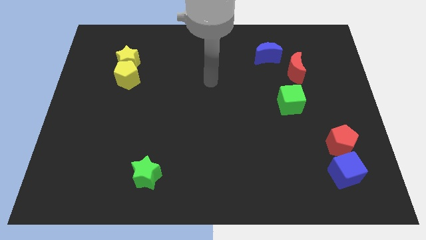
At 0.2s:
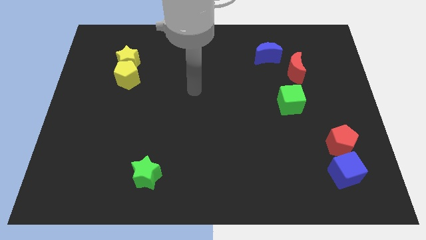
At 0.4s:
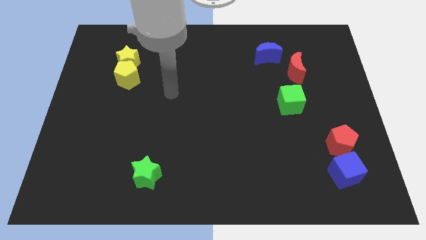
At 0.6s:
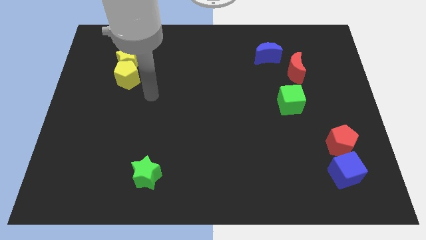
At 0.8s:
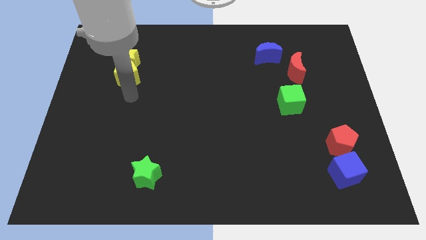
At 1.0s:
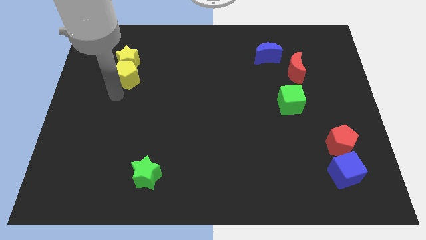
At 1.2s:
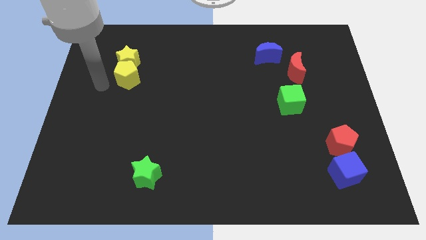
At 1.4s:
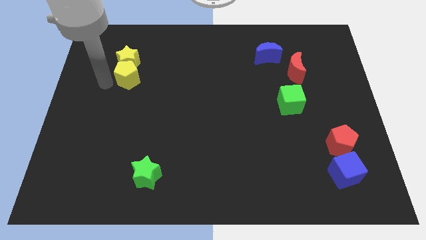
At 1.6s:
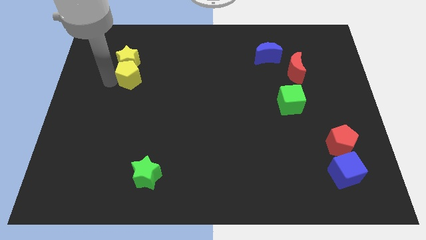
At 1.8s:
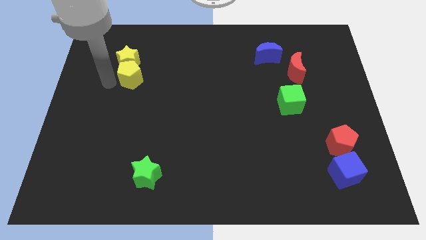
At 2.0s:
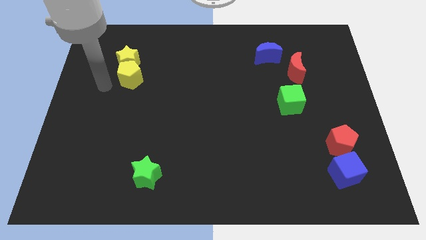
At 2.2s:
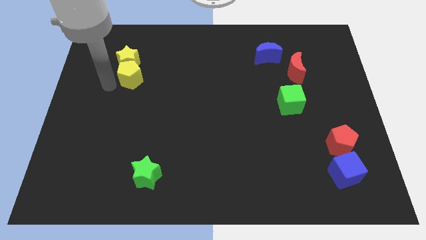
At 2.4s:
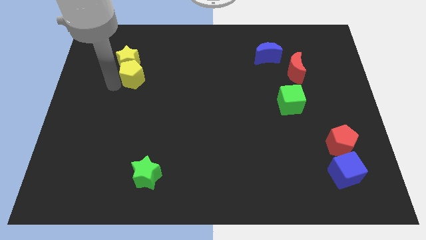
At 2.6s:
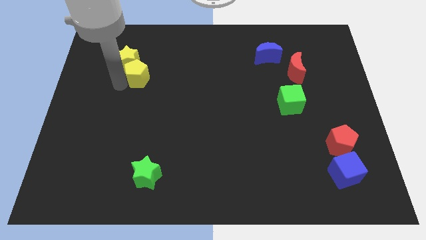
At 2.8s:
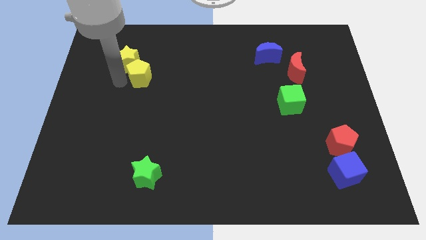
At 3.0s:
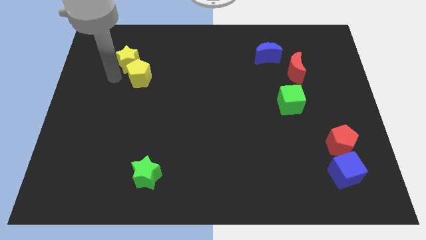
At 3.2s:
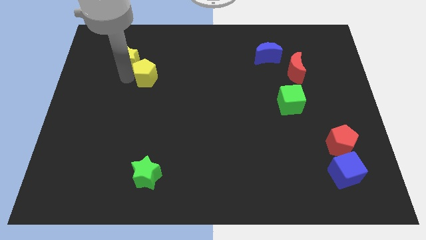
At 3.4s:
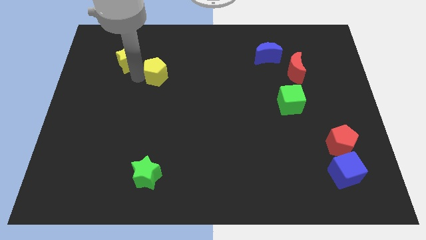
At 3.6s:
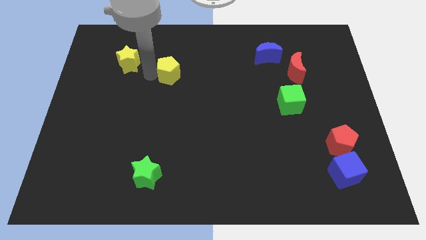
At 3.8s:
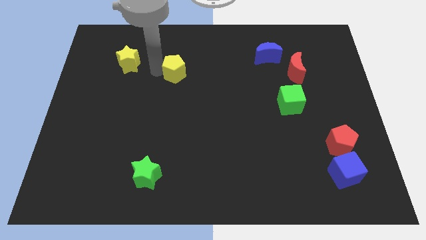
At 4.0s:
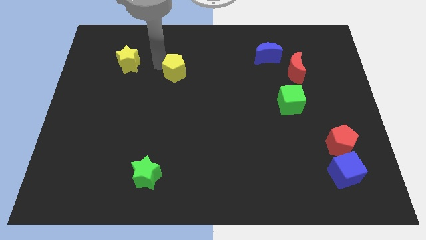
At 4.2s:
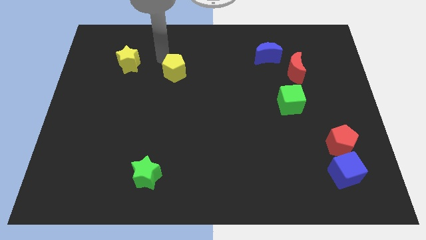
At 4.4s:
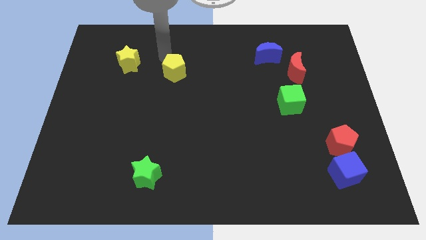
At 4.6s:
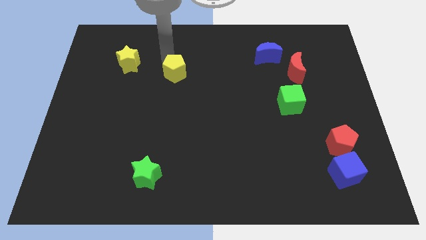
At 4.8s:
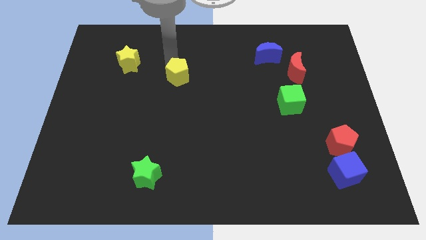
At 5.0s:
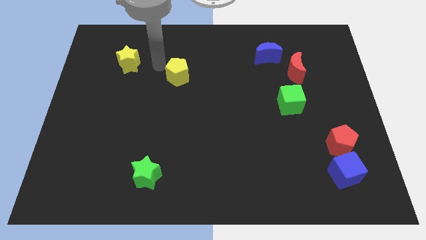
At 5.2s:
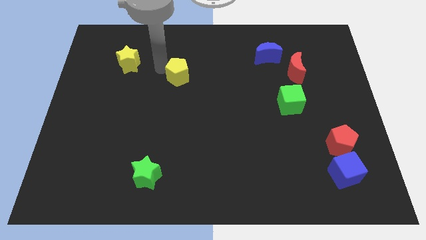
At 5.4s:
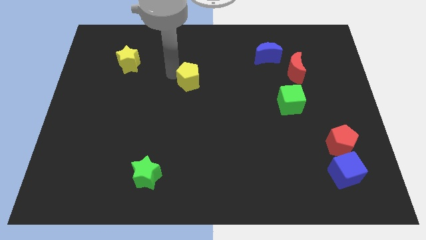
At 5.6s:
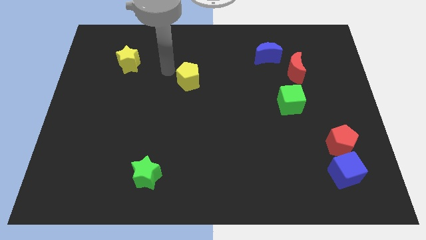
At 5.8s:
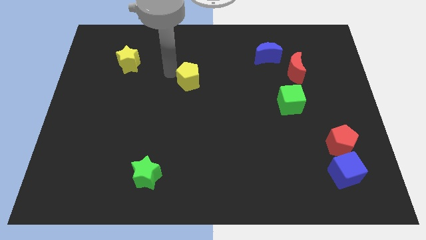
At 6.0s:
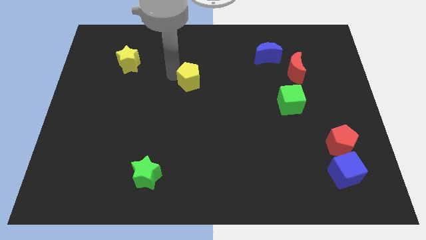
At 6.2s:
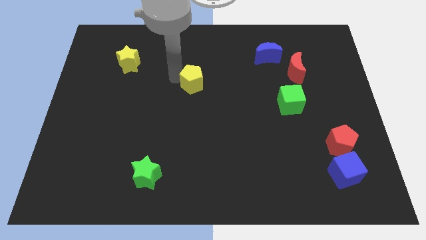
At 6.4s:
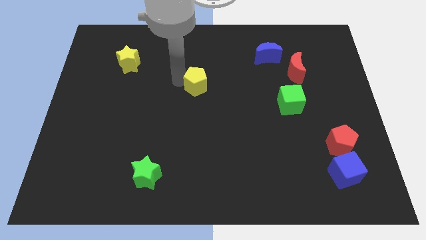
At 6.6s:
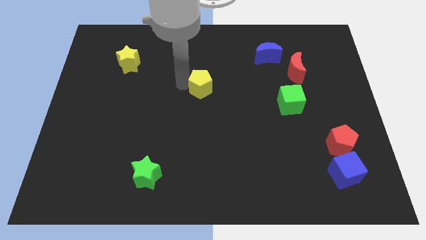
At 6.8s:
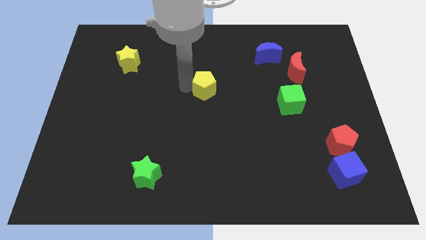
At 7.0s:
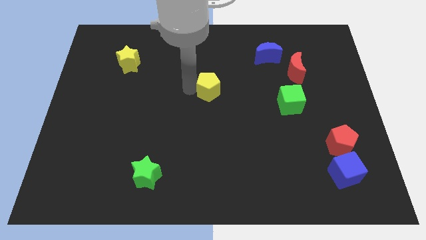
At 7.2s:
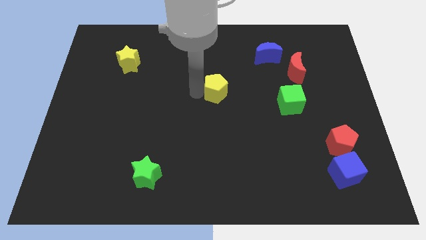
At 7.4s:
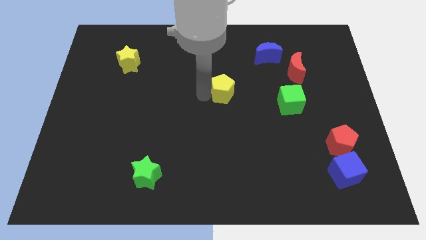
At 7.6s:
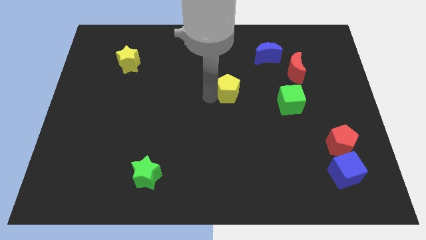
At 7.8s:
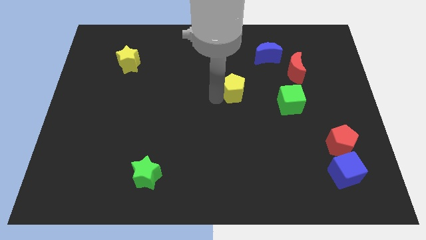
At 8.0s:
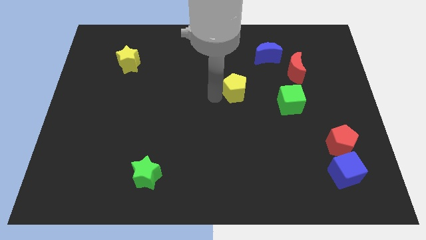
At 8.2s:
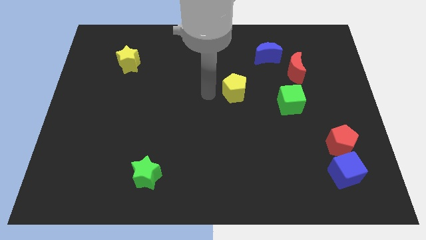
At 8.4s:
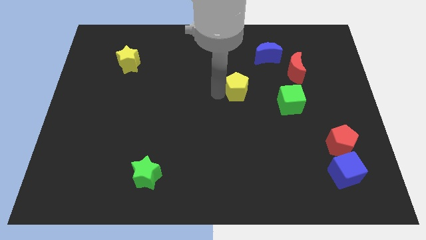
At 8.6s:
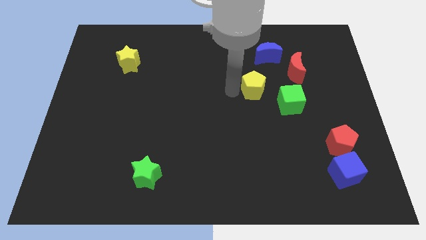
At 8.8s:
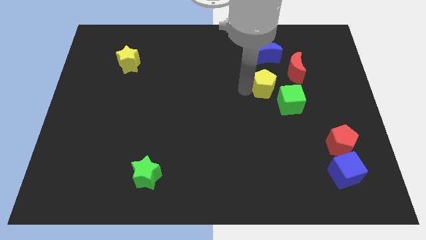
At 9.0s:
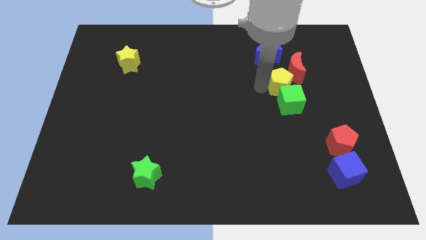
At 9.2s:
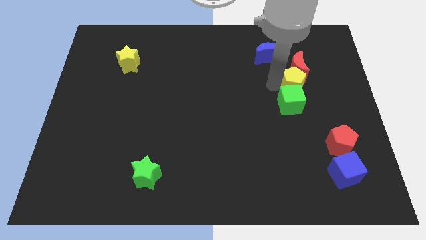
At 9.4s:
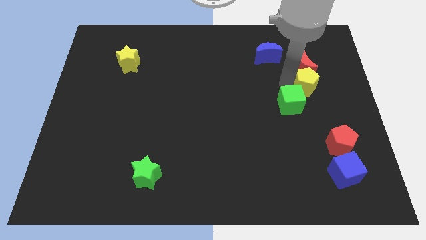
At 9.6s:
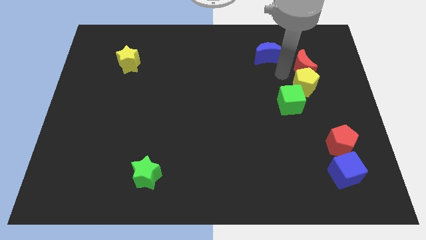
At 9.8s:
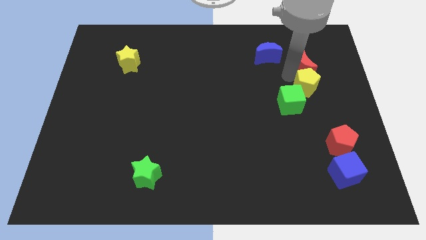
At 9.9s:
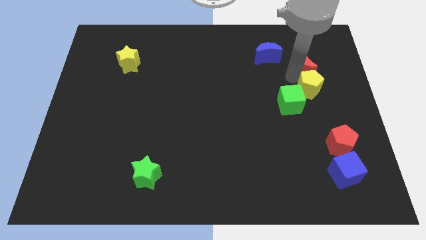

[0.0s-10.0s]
push the yellow pentagon to the right of the green cube

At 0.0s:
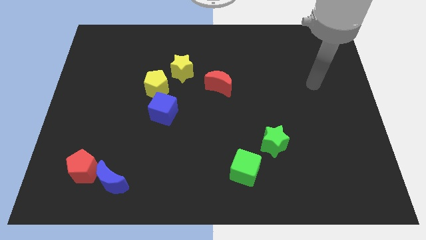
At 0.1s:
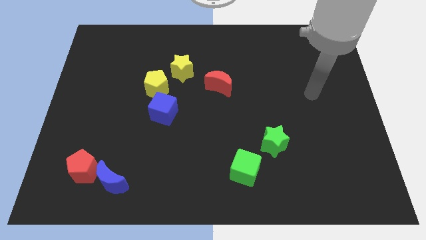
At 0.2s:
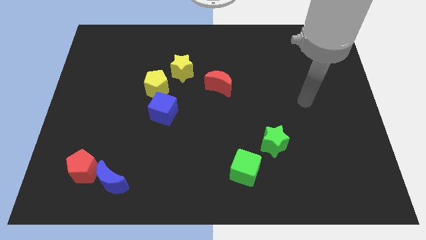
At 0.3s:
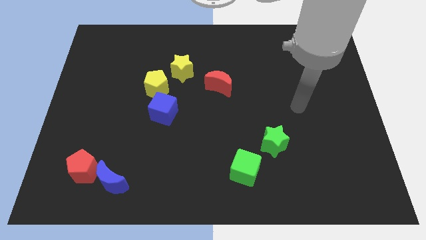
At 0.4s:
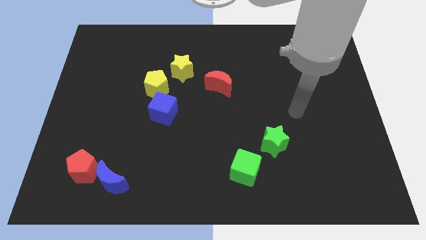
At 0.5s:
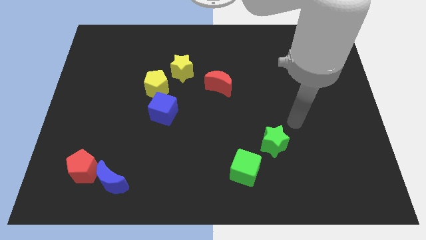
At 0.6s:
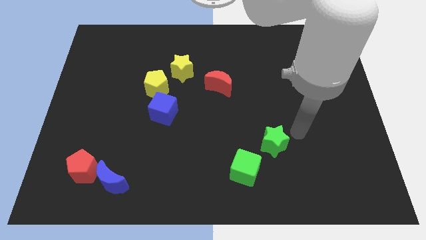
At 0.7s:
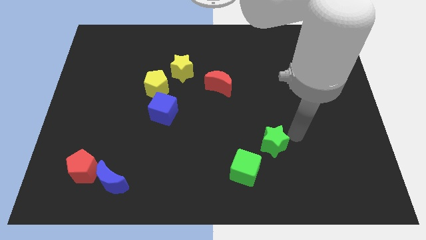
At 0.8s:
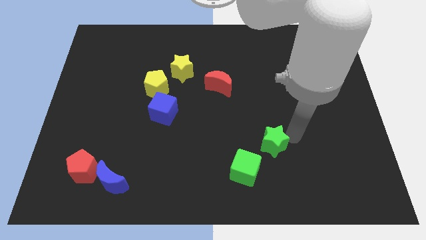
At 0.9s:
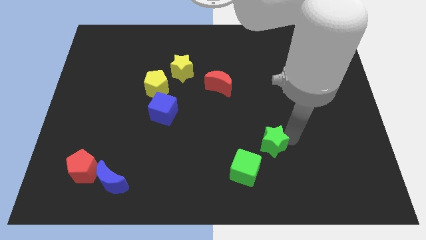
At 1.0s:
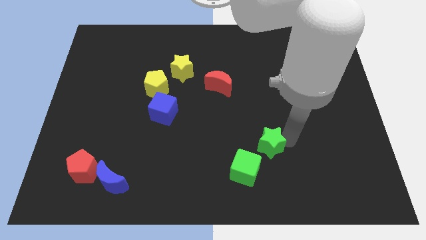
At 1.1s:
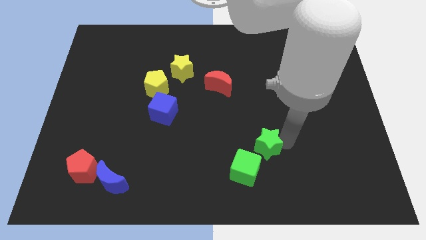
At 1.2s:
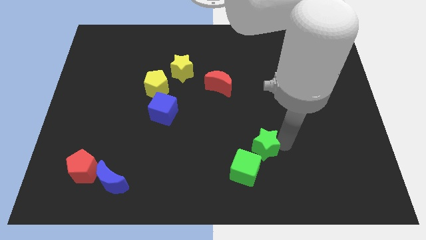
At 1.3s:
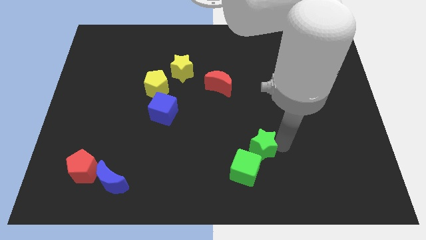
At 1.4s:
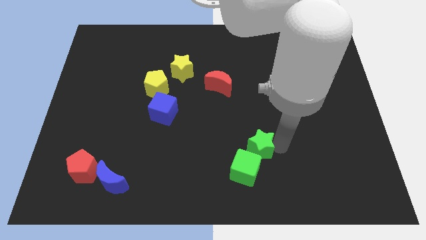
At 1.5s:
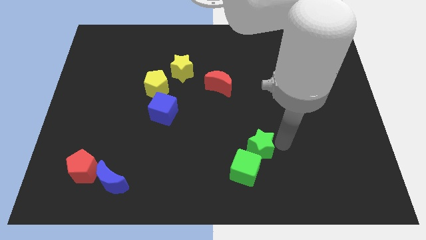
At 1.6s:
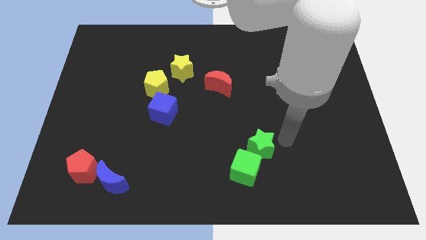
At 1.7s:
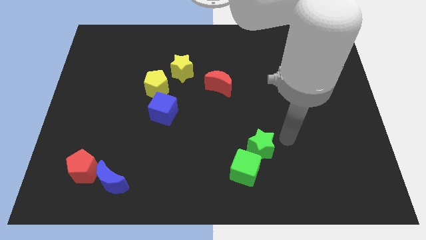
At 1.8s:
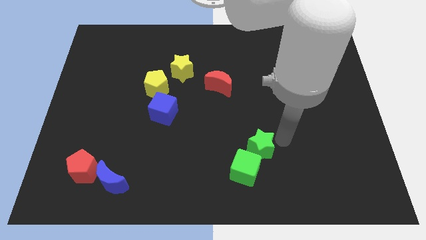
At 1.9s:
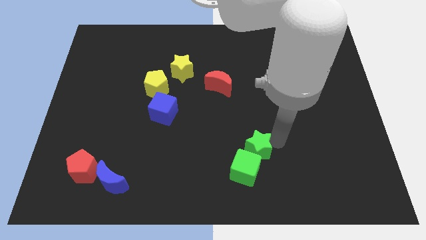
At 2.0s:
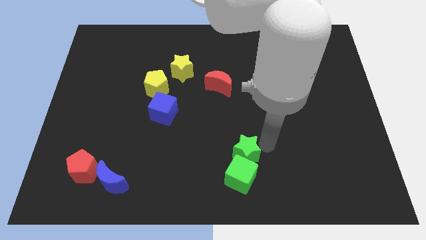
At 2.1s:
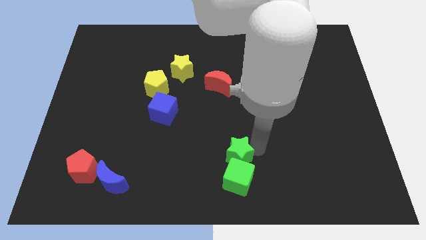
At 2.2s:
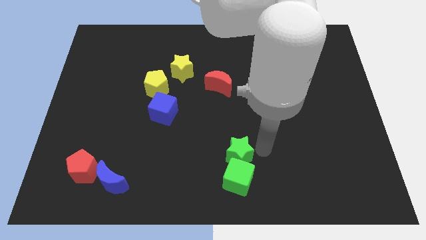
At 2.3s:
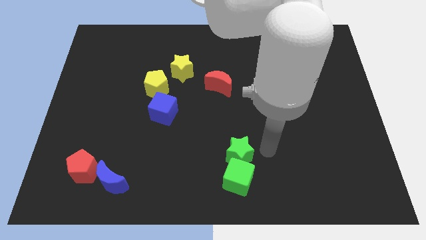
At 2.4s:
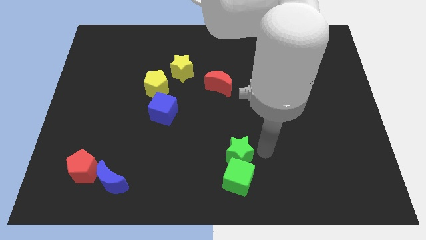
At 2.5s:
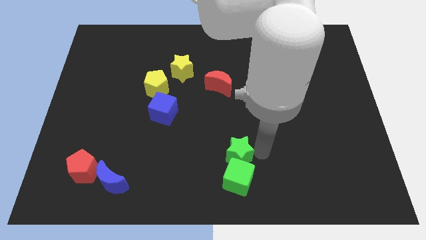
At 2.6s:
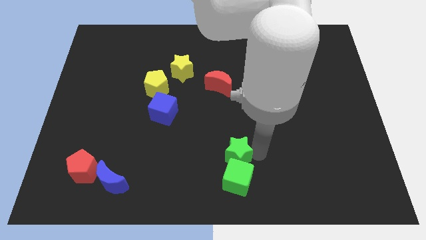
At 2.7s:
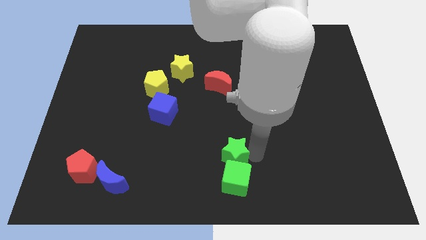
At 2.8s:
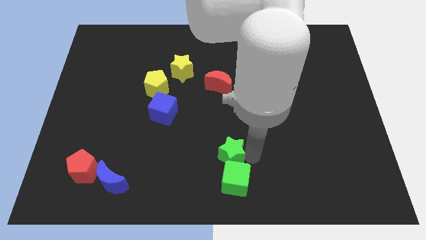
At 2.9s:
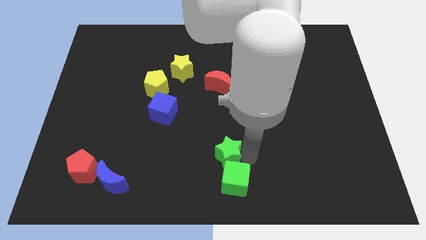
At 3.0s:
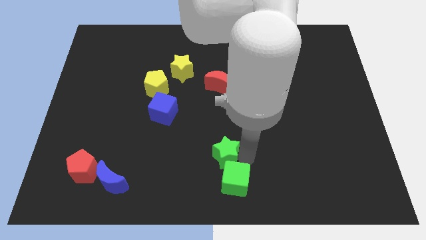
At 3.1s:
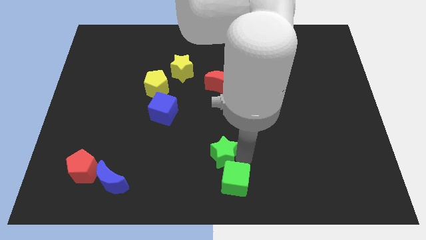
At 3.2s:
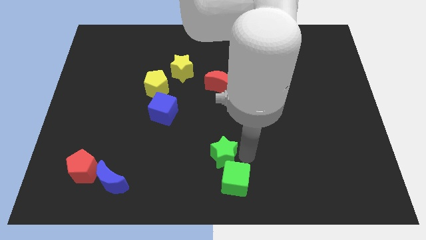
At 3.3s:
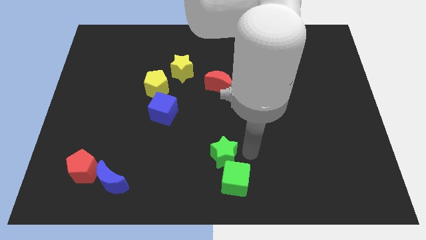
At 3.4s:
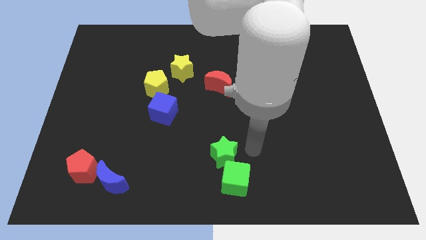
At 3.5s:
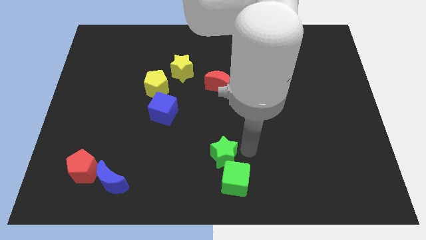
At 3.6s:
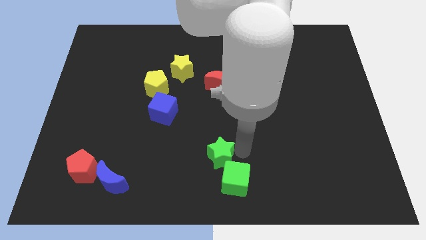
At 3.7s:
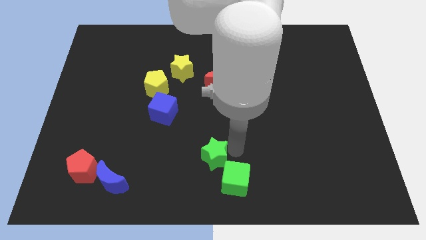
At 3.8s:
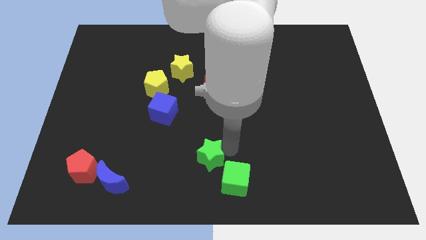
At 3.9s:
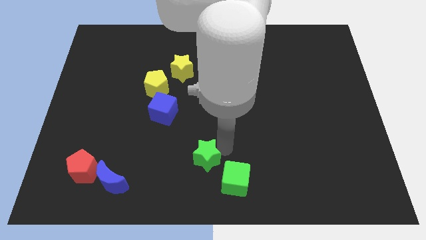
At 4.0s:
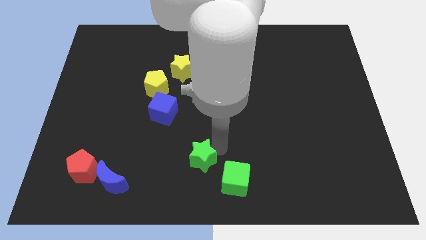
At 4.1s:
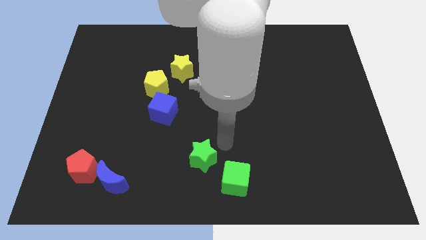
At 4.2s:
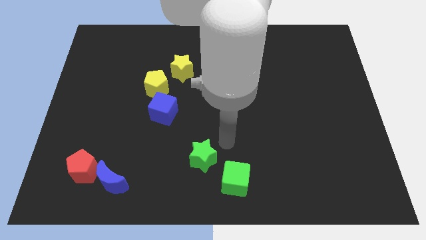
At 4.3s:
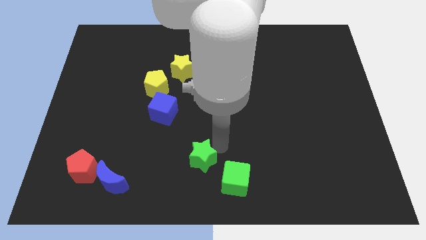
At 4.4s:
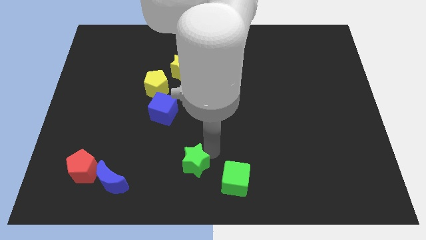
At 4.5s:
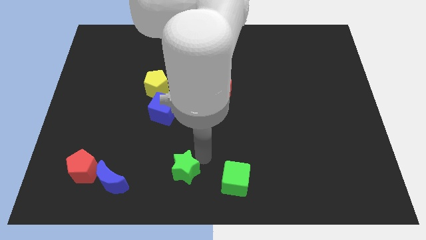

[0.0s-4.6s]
push the green star to the right side of the blue moon
